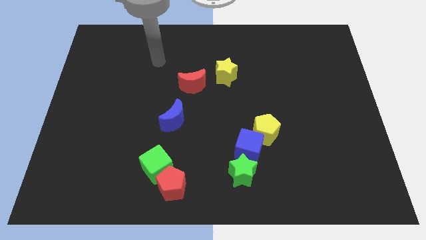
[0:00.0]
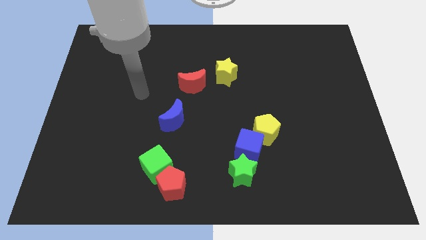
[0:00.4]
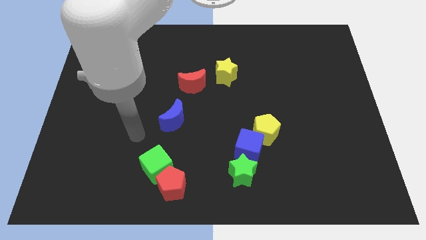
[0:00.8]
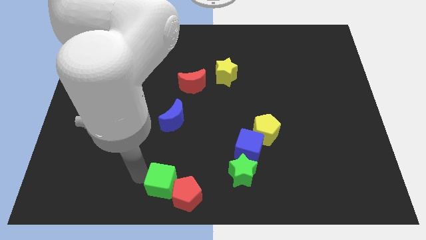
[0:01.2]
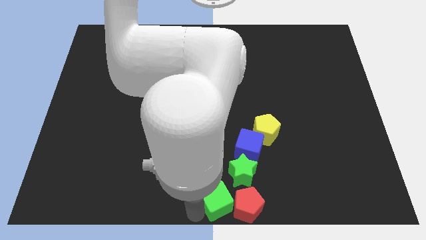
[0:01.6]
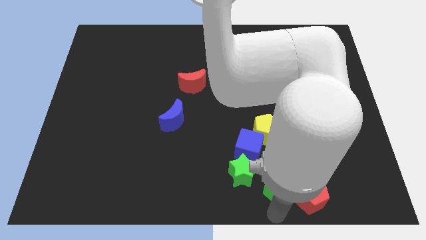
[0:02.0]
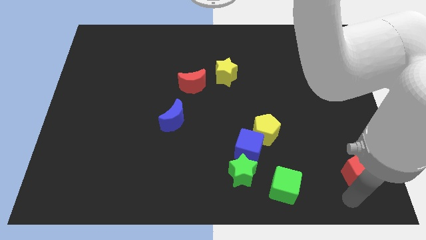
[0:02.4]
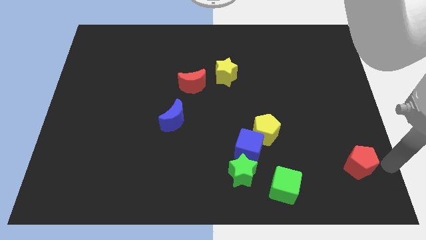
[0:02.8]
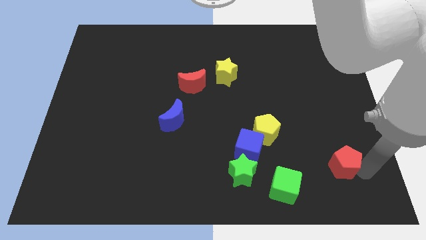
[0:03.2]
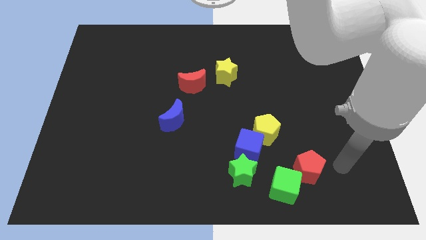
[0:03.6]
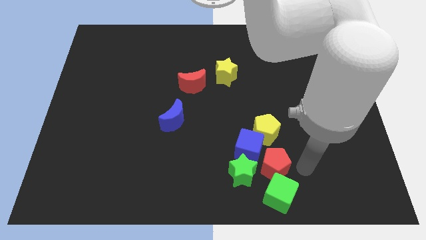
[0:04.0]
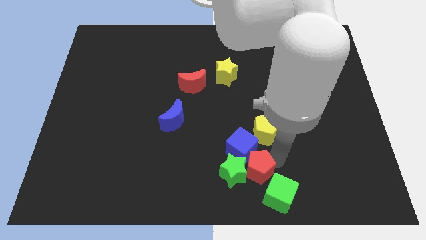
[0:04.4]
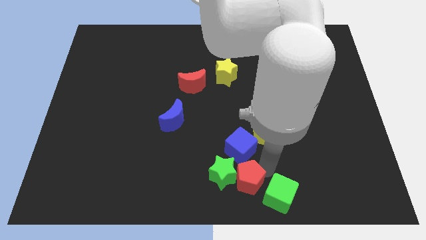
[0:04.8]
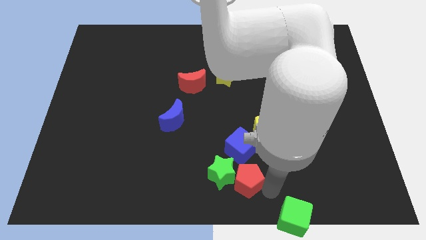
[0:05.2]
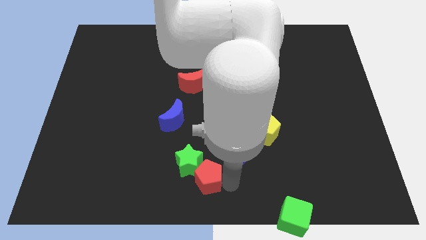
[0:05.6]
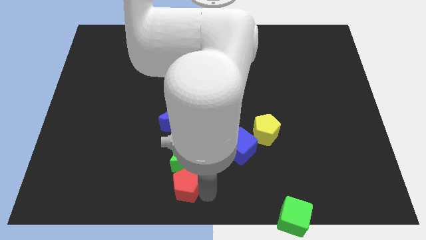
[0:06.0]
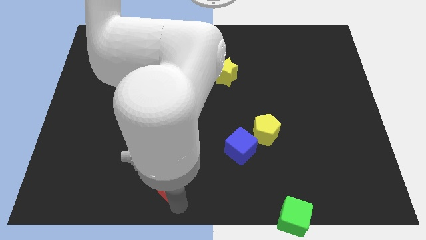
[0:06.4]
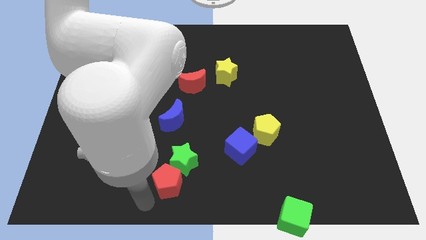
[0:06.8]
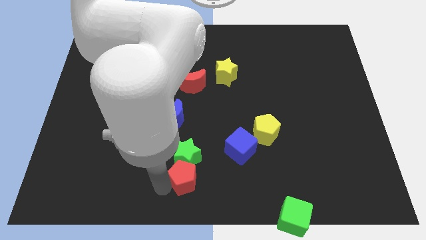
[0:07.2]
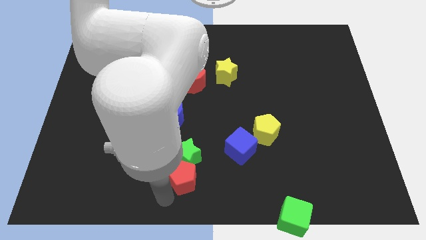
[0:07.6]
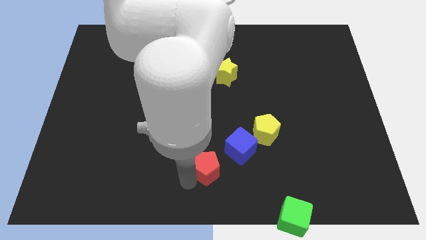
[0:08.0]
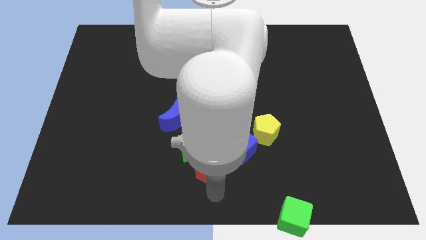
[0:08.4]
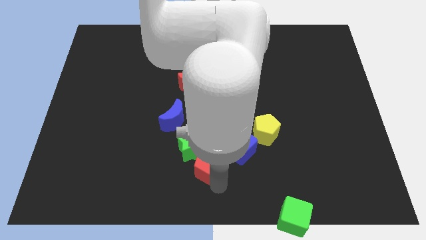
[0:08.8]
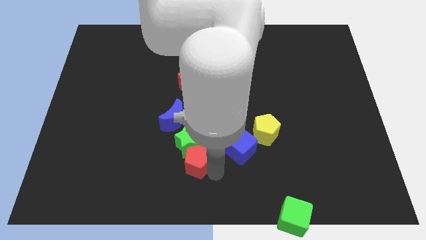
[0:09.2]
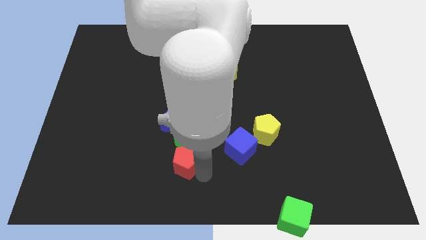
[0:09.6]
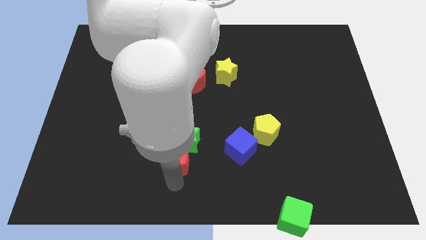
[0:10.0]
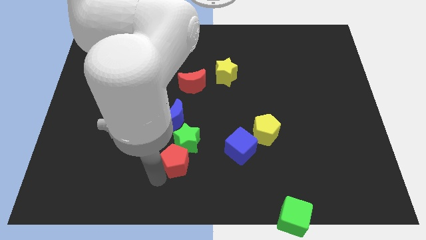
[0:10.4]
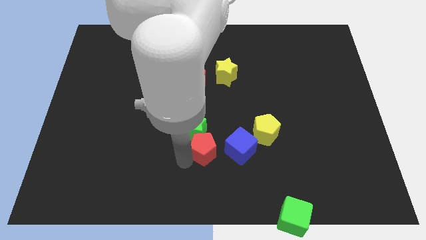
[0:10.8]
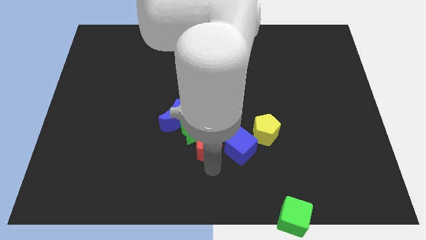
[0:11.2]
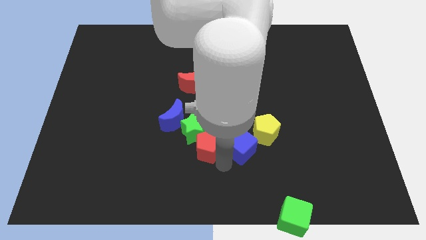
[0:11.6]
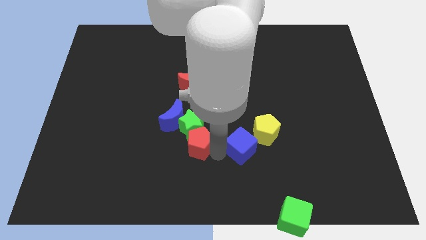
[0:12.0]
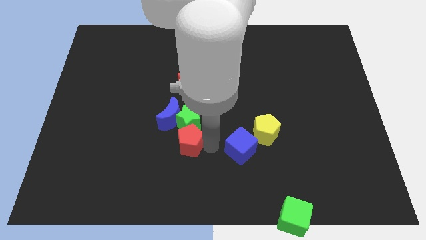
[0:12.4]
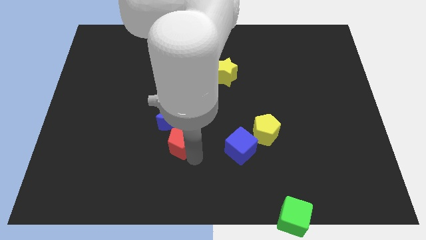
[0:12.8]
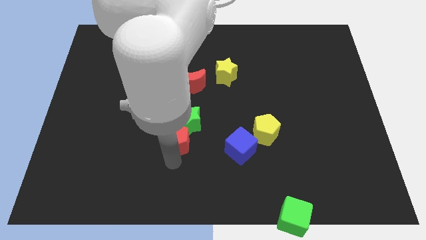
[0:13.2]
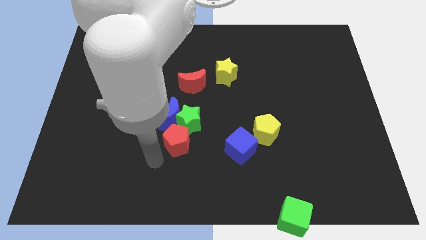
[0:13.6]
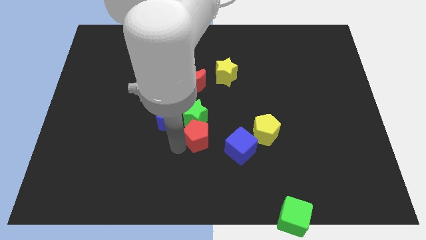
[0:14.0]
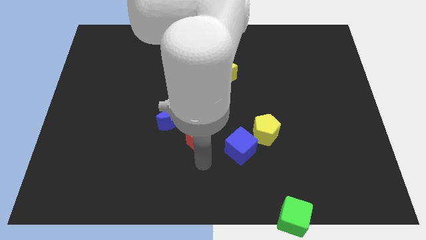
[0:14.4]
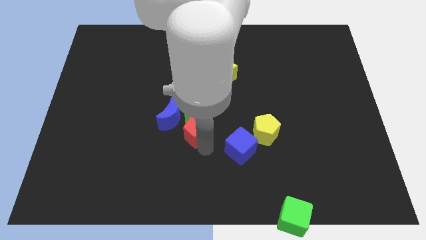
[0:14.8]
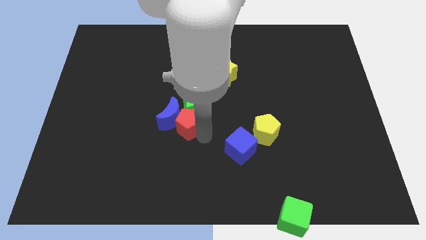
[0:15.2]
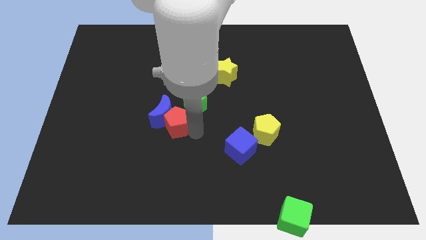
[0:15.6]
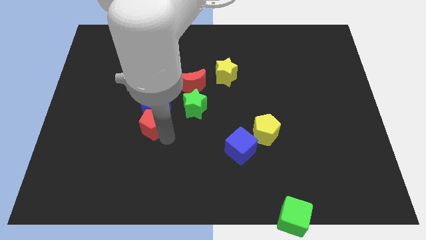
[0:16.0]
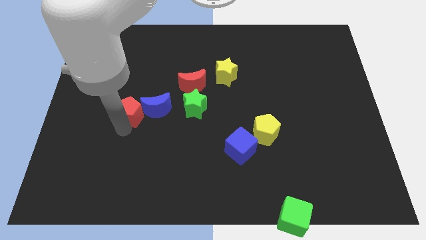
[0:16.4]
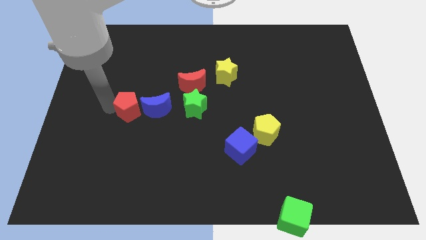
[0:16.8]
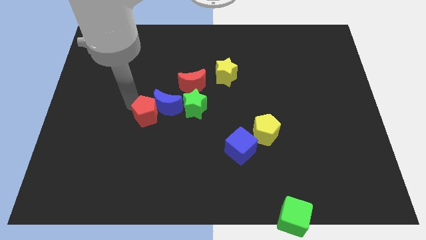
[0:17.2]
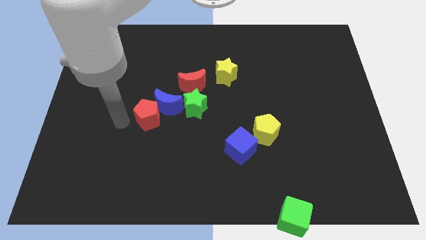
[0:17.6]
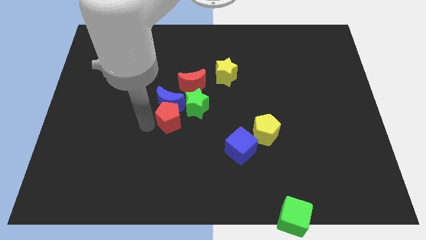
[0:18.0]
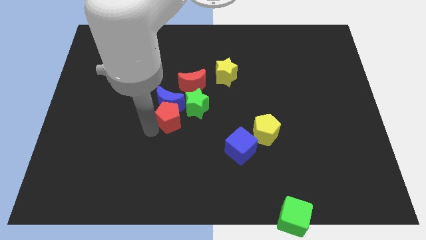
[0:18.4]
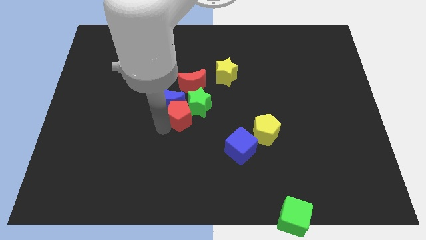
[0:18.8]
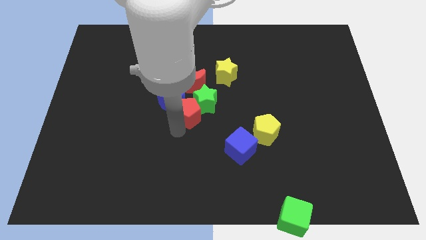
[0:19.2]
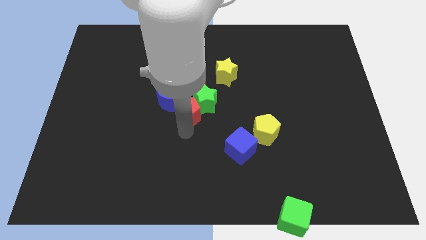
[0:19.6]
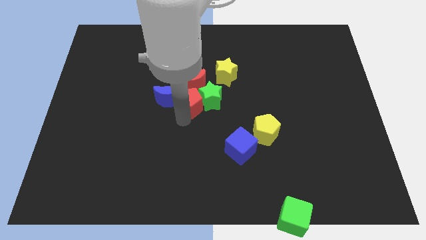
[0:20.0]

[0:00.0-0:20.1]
push the red pentagon next to the red moon
